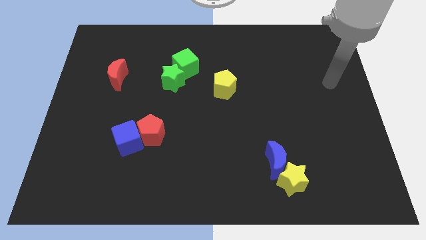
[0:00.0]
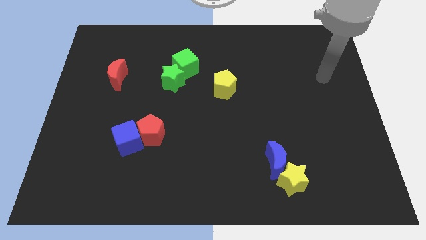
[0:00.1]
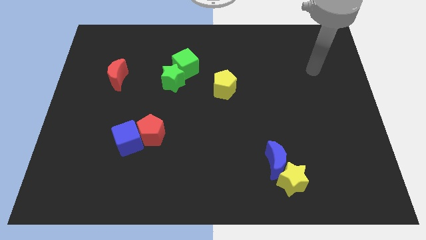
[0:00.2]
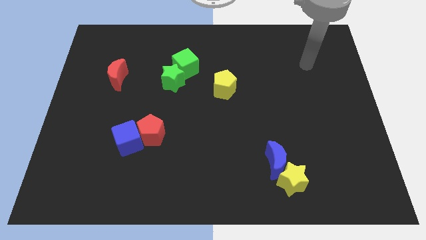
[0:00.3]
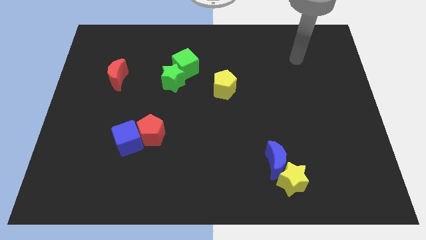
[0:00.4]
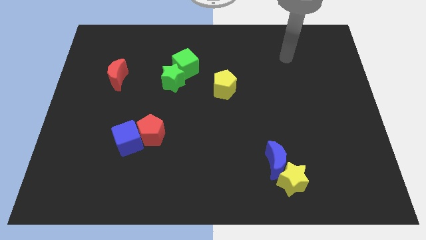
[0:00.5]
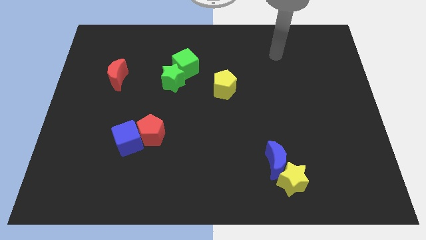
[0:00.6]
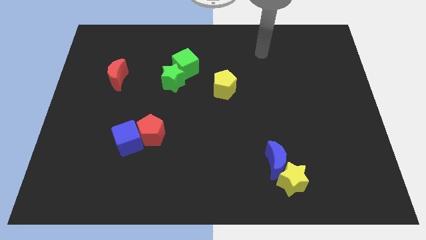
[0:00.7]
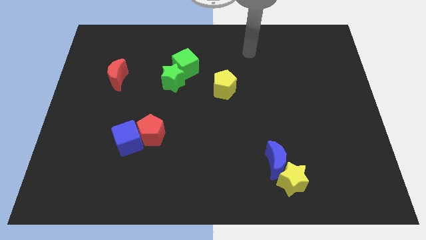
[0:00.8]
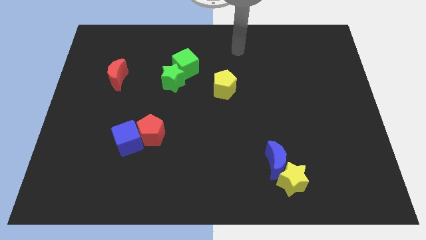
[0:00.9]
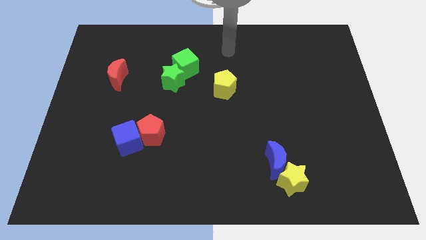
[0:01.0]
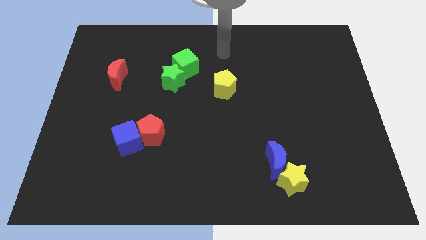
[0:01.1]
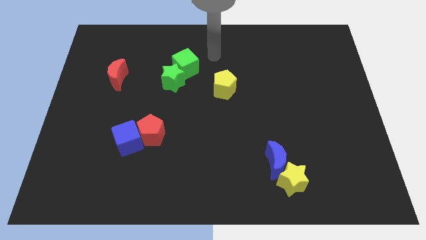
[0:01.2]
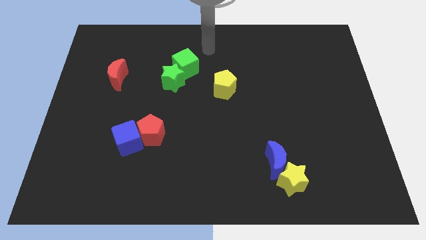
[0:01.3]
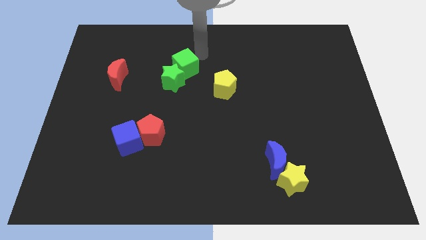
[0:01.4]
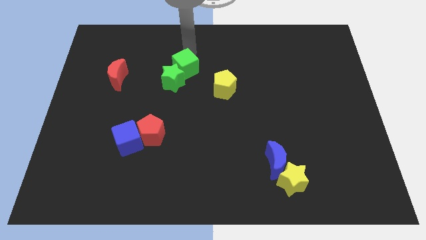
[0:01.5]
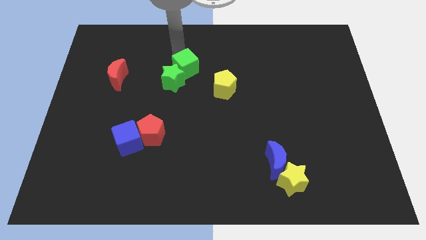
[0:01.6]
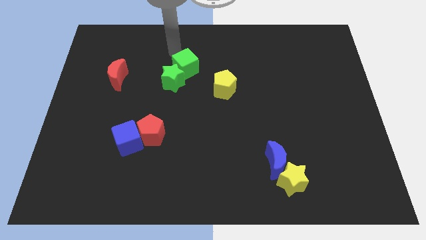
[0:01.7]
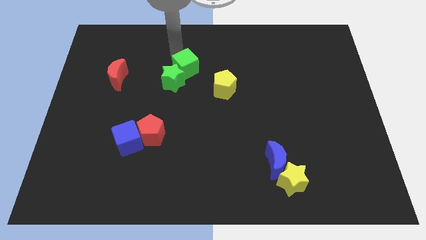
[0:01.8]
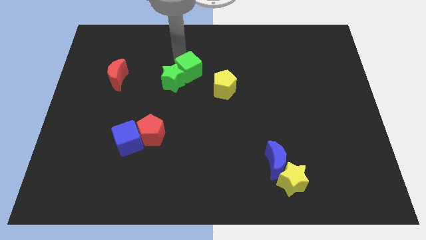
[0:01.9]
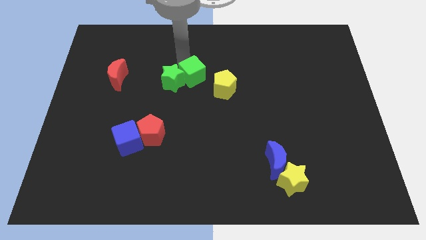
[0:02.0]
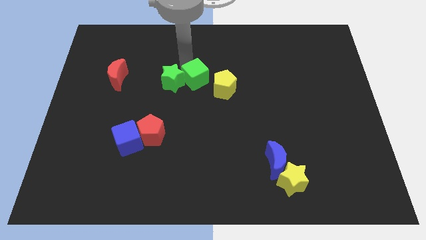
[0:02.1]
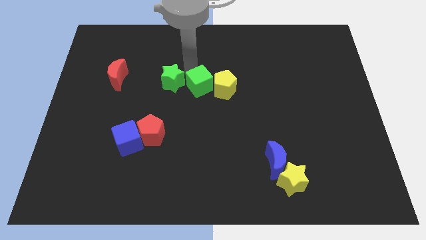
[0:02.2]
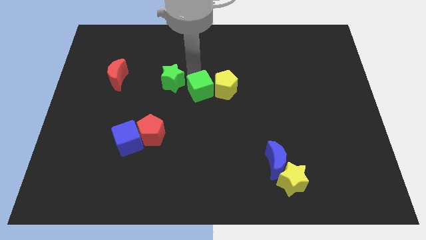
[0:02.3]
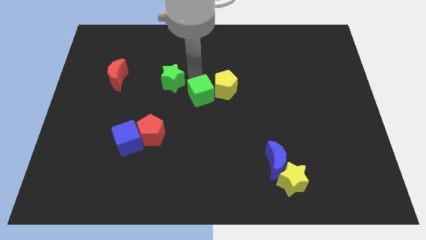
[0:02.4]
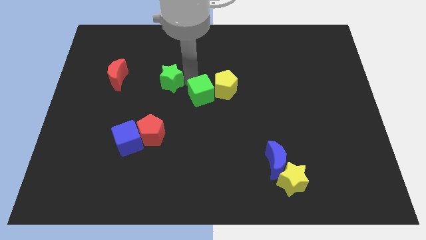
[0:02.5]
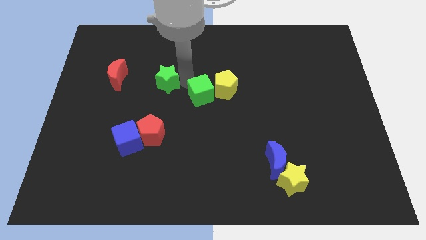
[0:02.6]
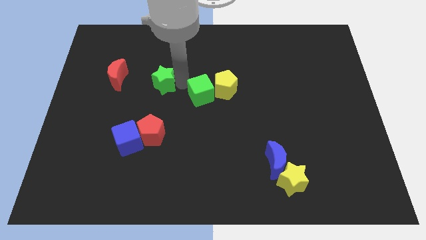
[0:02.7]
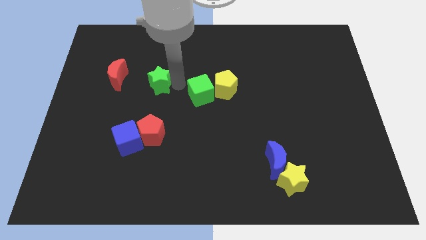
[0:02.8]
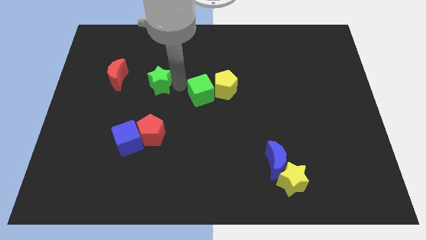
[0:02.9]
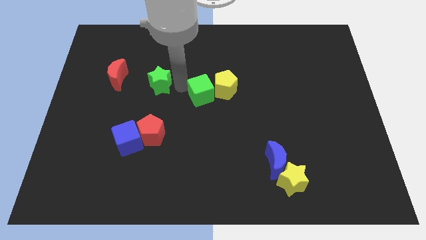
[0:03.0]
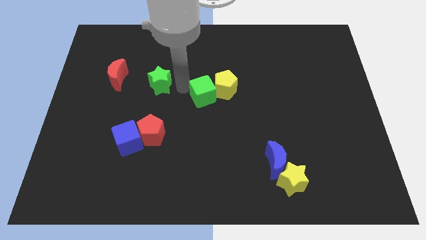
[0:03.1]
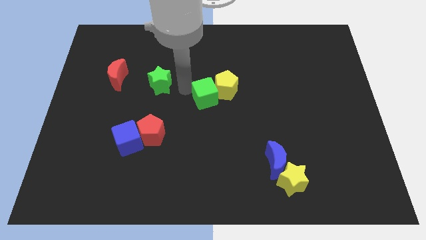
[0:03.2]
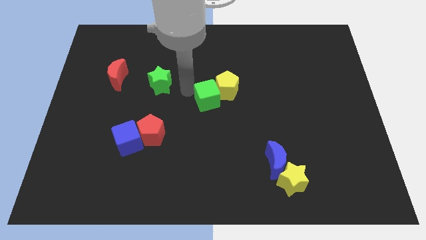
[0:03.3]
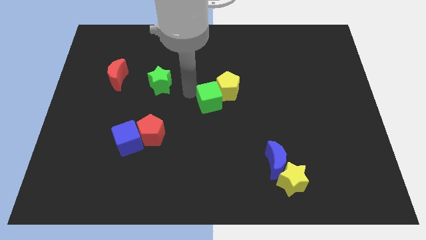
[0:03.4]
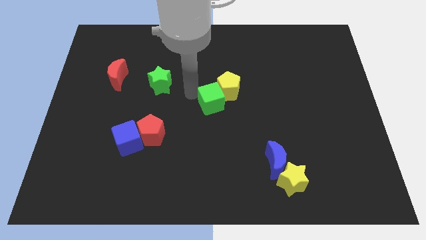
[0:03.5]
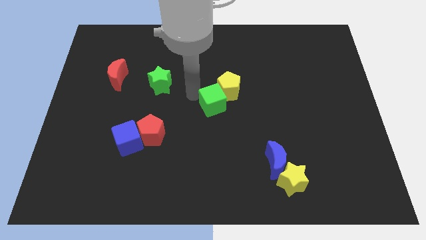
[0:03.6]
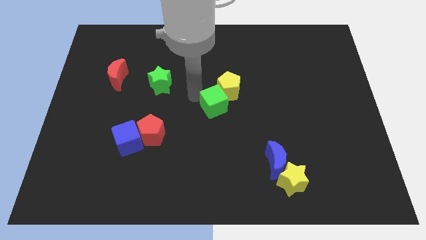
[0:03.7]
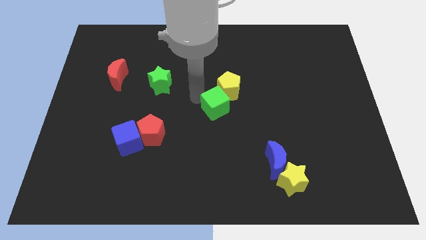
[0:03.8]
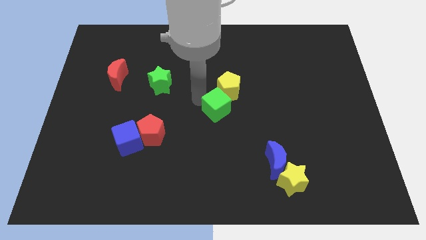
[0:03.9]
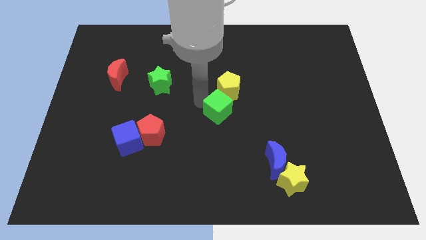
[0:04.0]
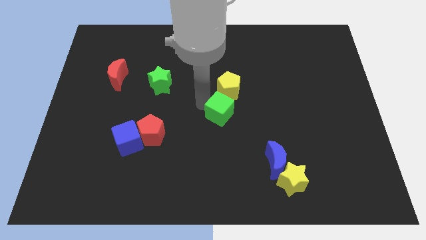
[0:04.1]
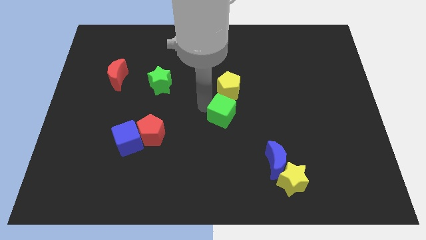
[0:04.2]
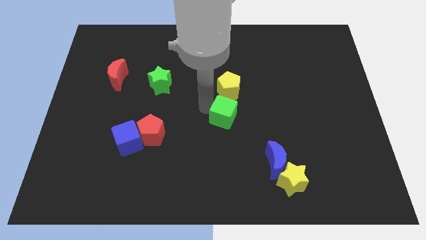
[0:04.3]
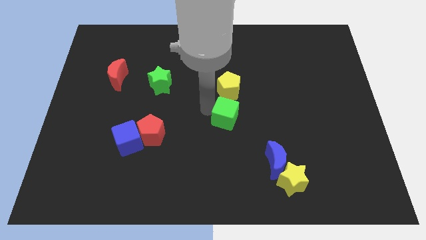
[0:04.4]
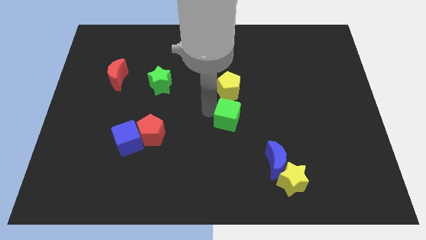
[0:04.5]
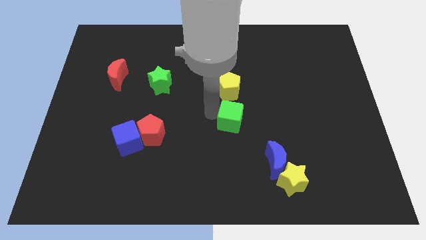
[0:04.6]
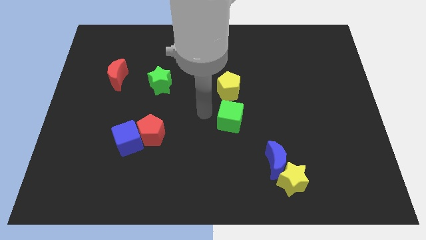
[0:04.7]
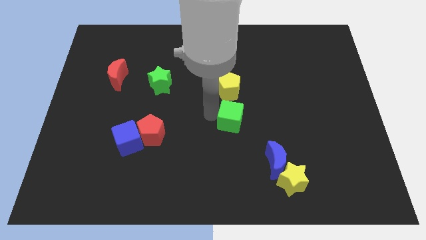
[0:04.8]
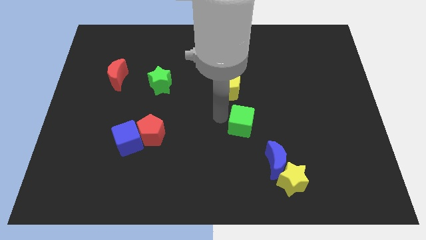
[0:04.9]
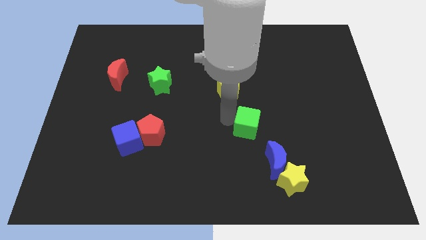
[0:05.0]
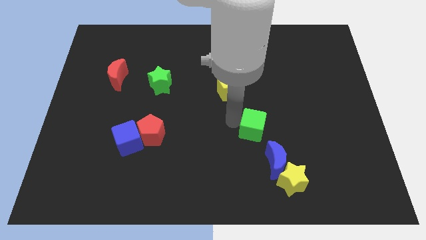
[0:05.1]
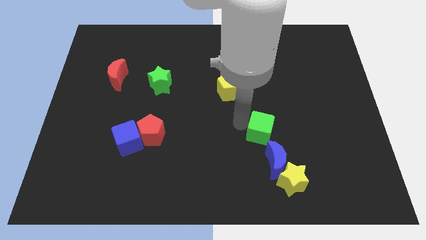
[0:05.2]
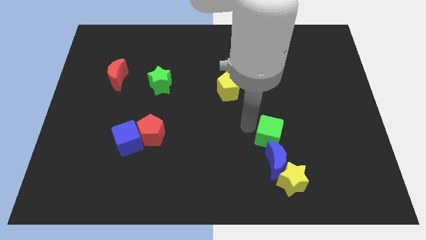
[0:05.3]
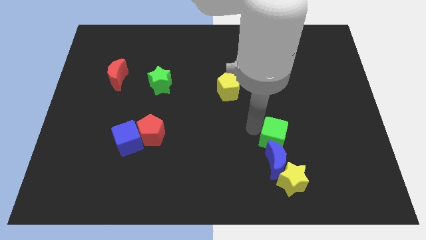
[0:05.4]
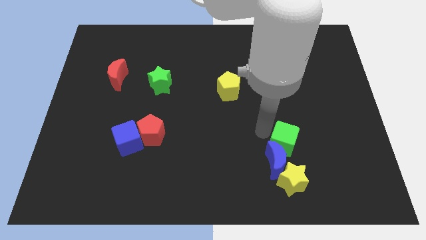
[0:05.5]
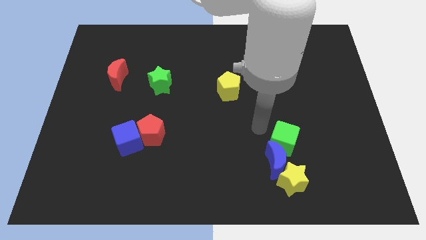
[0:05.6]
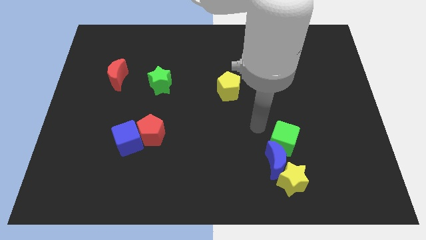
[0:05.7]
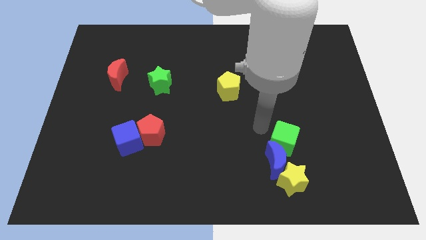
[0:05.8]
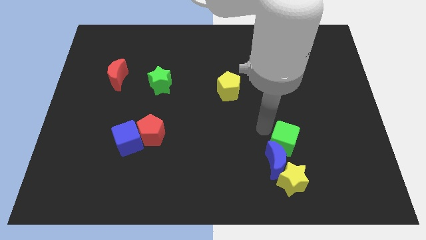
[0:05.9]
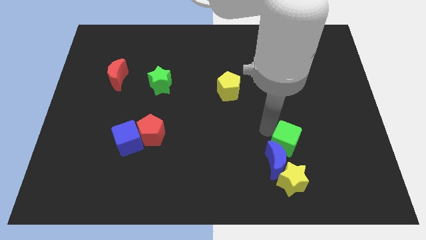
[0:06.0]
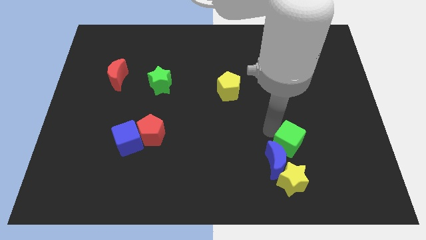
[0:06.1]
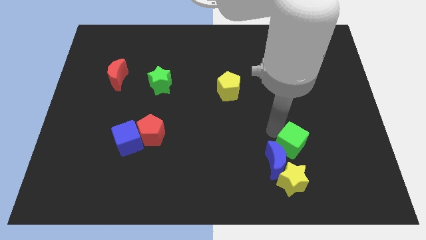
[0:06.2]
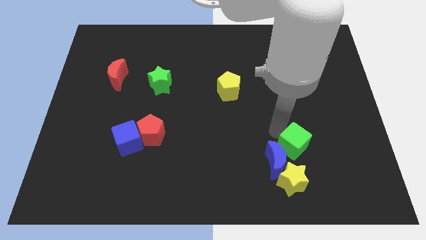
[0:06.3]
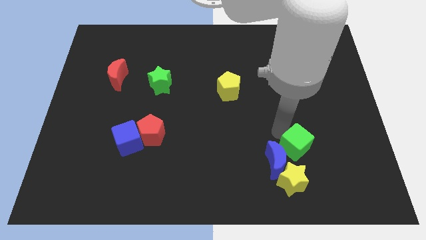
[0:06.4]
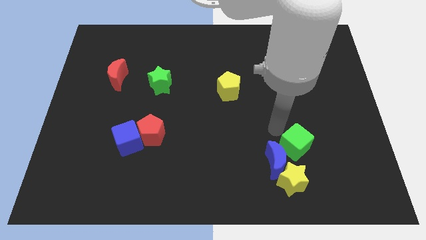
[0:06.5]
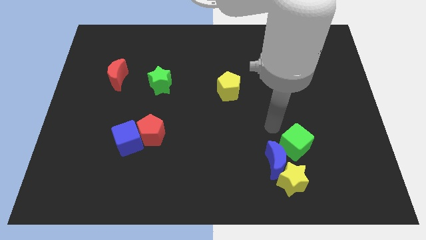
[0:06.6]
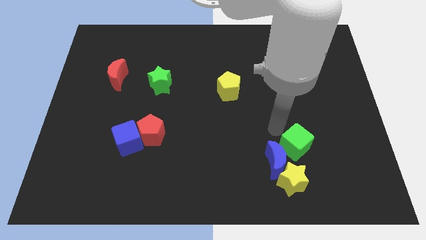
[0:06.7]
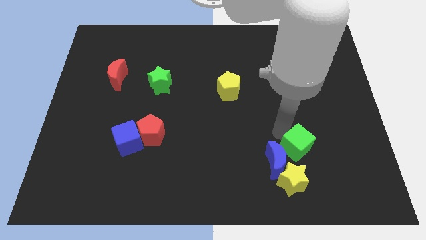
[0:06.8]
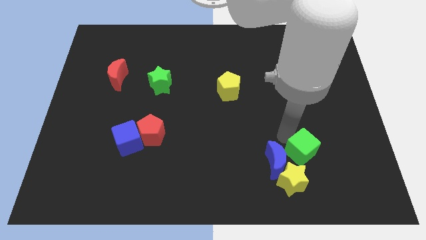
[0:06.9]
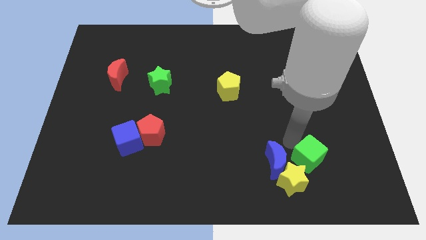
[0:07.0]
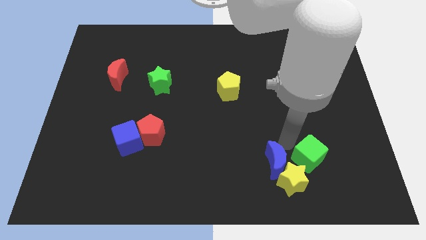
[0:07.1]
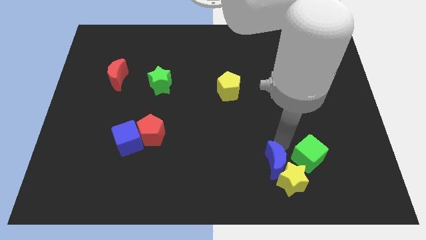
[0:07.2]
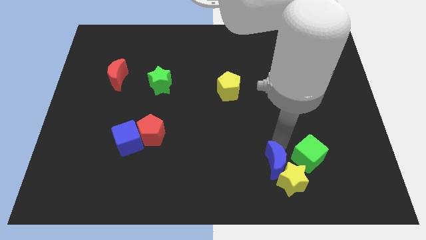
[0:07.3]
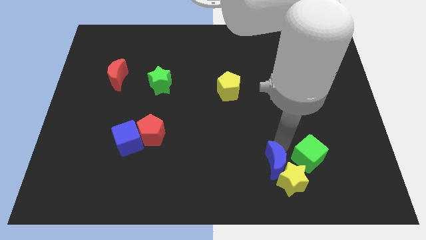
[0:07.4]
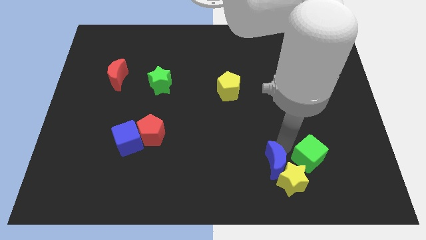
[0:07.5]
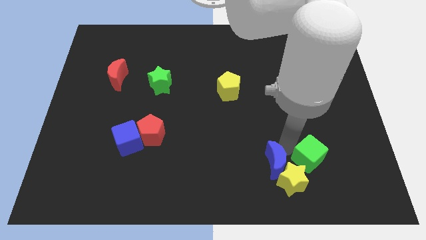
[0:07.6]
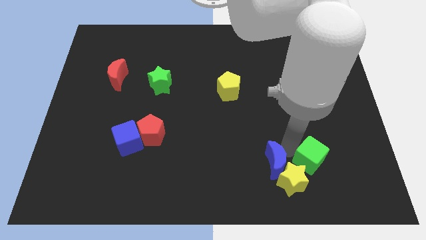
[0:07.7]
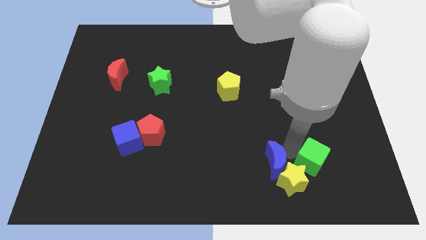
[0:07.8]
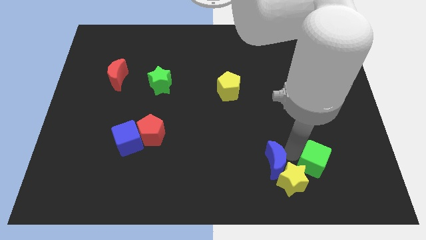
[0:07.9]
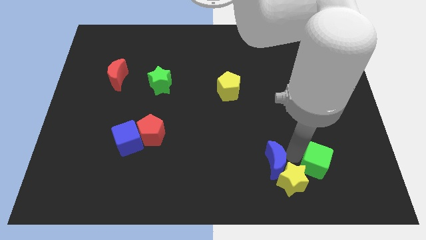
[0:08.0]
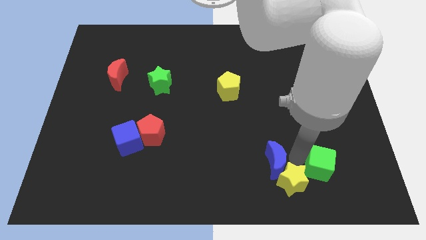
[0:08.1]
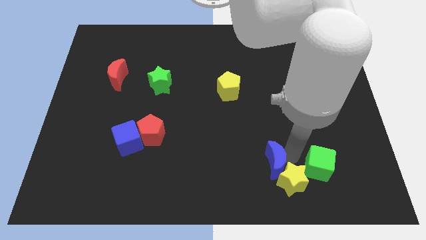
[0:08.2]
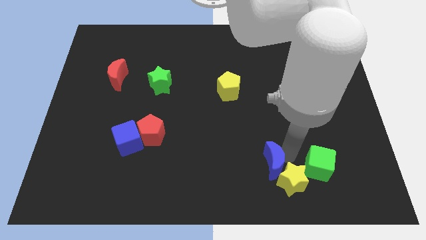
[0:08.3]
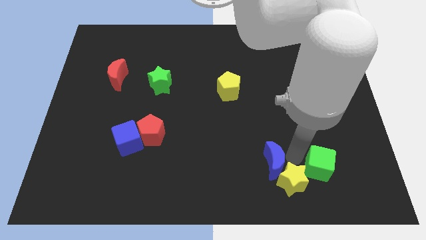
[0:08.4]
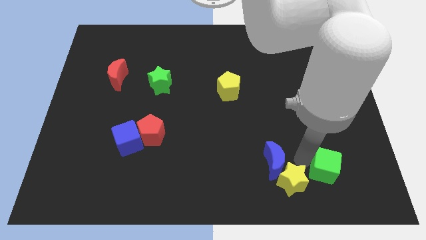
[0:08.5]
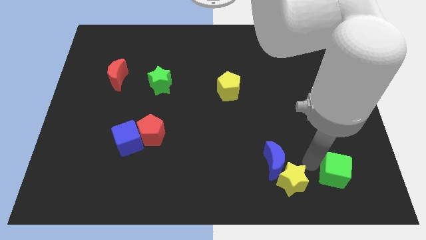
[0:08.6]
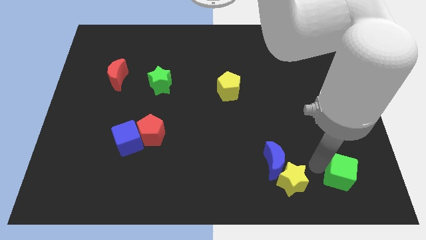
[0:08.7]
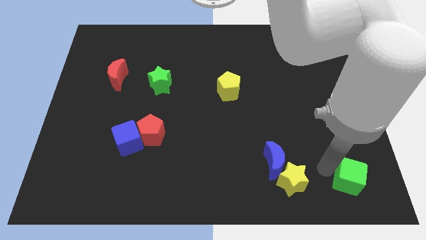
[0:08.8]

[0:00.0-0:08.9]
move the green cube to the bottom right
